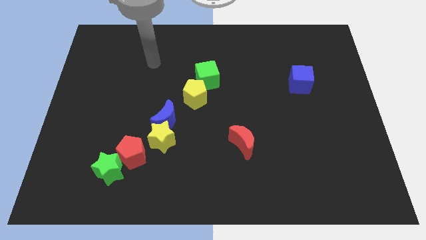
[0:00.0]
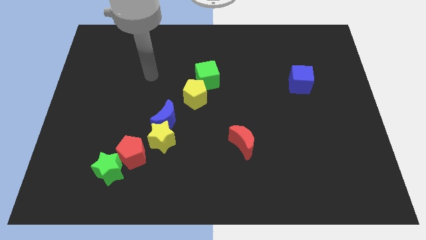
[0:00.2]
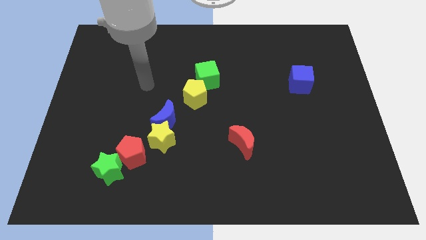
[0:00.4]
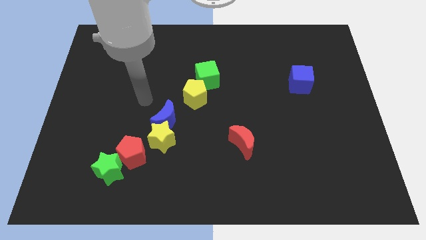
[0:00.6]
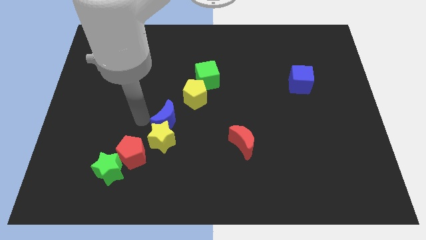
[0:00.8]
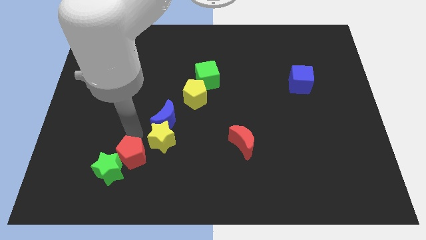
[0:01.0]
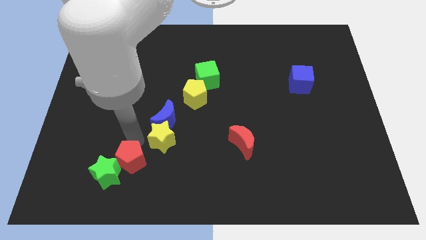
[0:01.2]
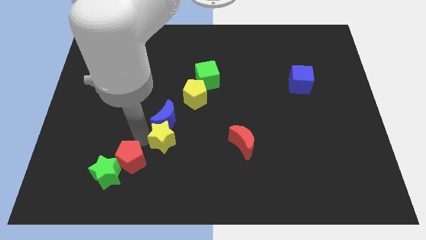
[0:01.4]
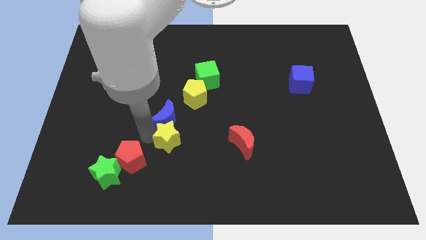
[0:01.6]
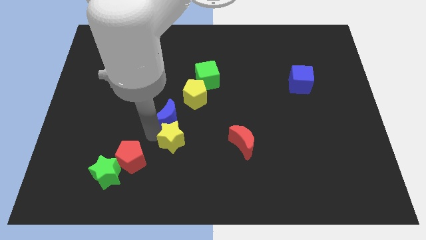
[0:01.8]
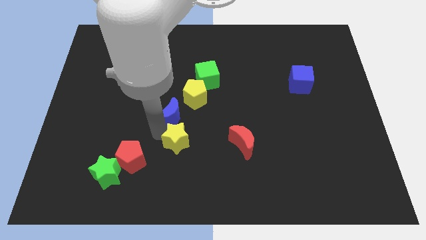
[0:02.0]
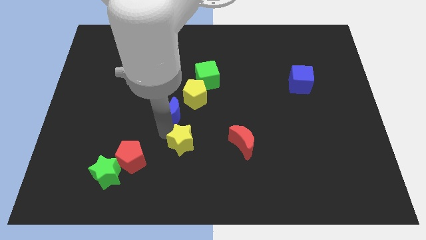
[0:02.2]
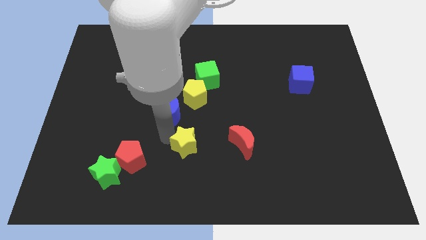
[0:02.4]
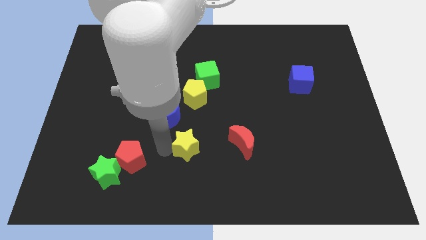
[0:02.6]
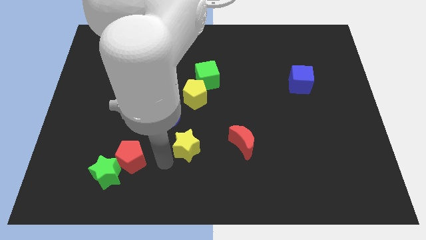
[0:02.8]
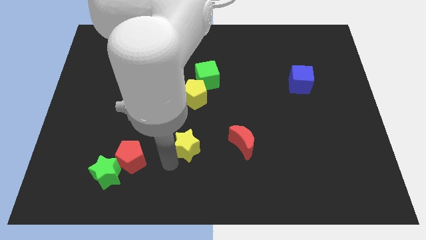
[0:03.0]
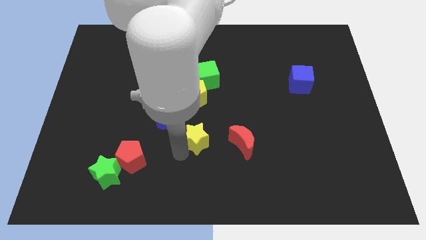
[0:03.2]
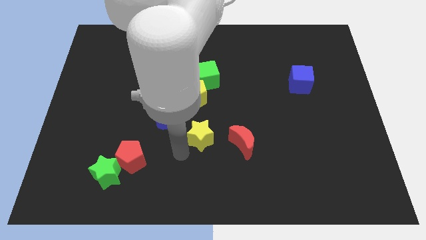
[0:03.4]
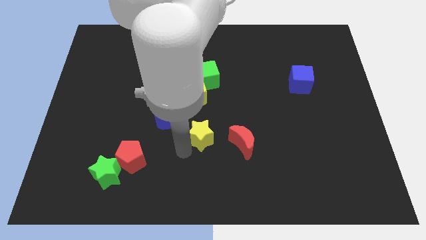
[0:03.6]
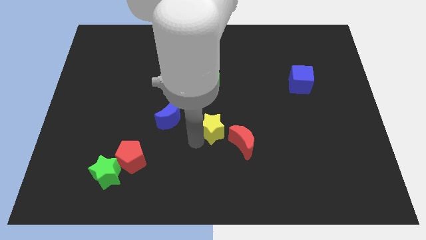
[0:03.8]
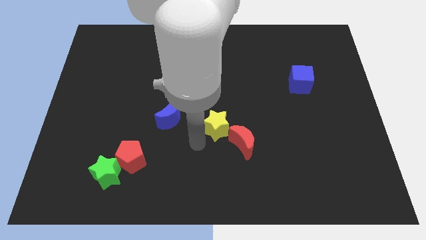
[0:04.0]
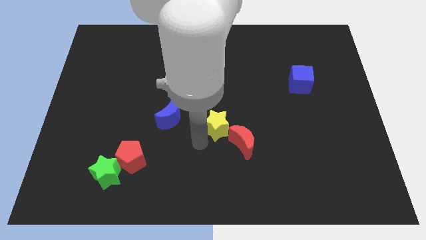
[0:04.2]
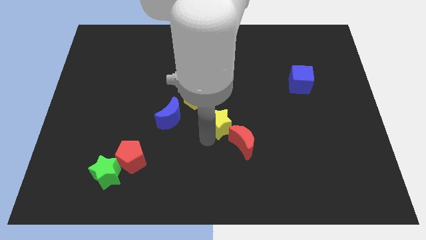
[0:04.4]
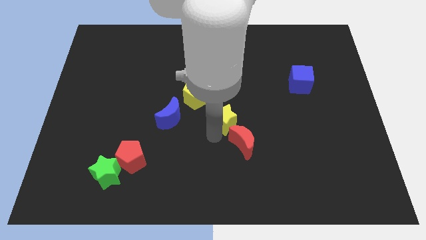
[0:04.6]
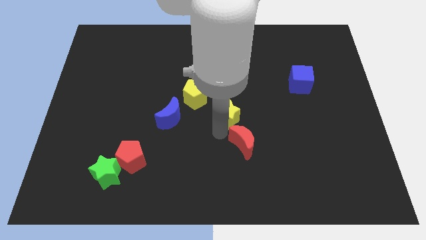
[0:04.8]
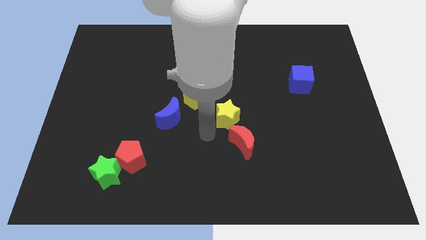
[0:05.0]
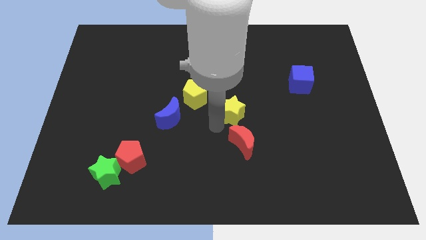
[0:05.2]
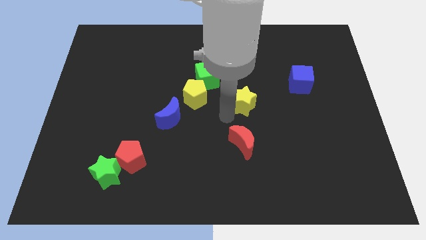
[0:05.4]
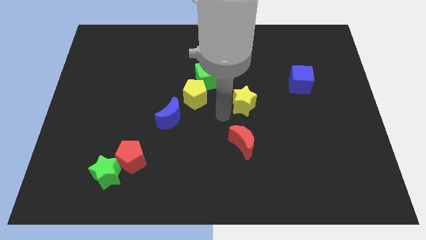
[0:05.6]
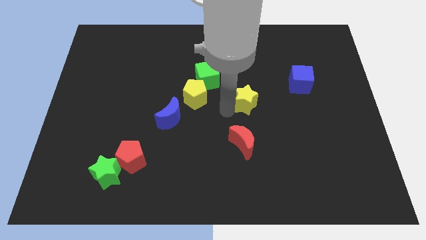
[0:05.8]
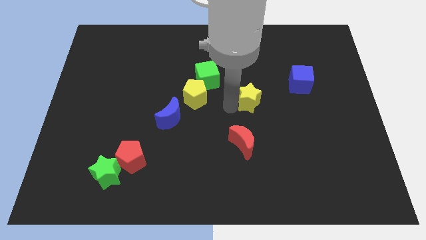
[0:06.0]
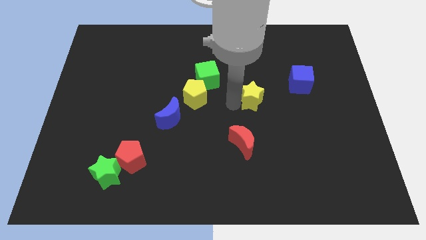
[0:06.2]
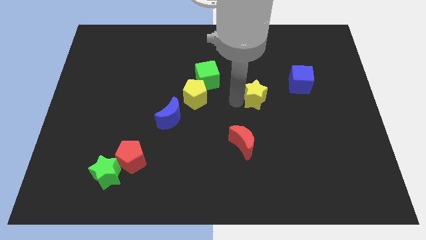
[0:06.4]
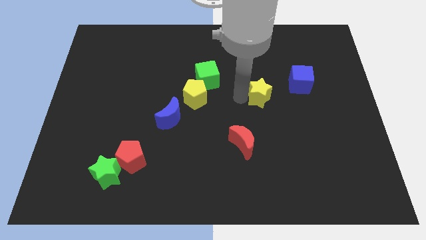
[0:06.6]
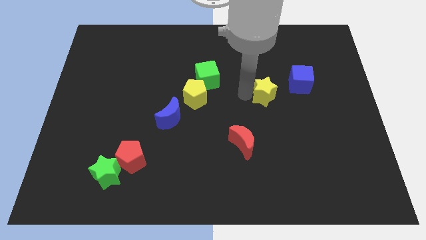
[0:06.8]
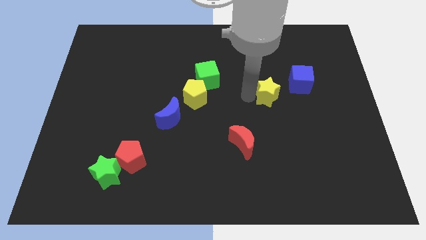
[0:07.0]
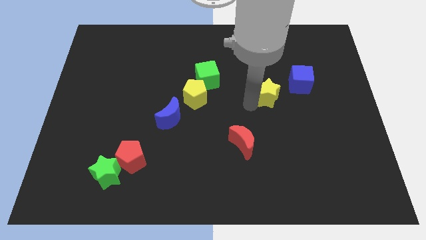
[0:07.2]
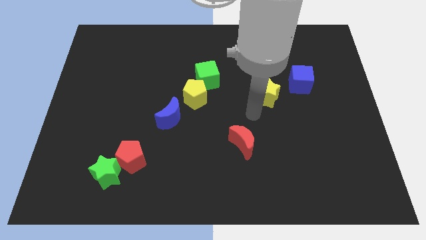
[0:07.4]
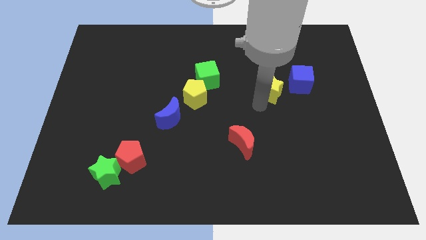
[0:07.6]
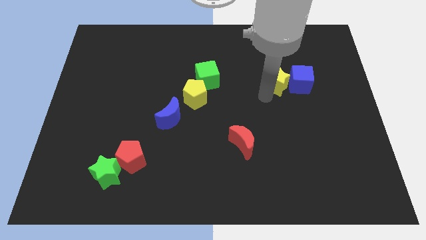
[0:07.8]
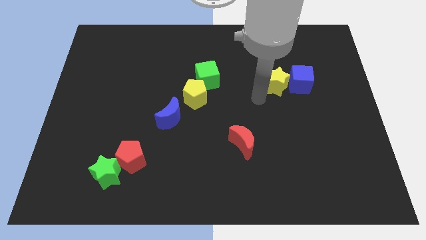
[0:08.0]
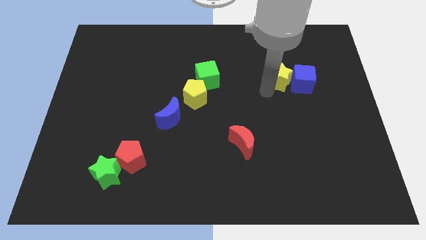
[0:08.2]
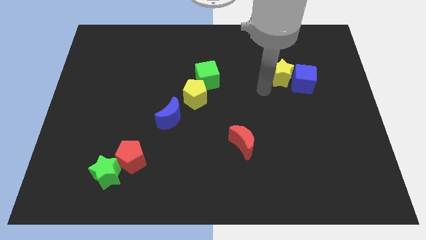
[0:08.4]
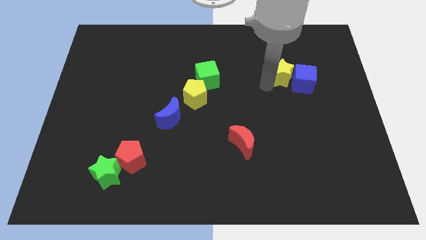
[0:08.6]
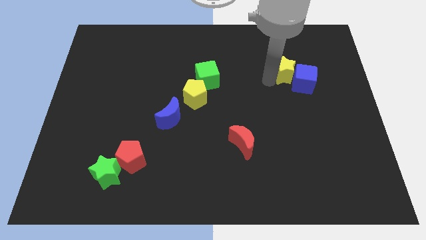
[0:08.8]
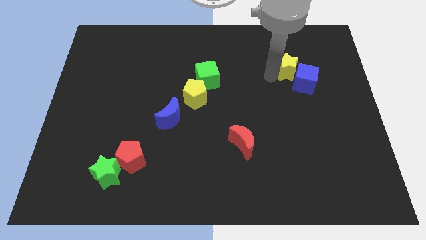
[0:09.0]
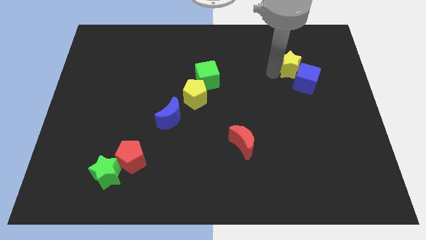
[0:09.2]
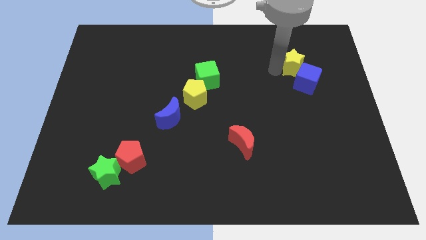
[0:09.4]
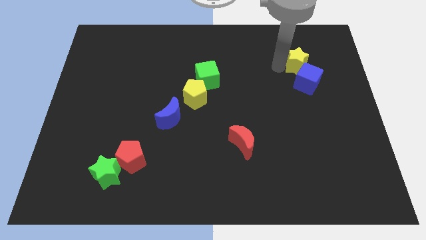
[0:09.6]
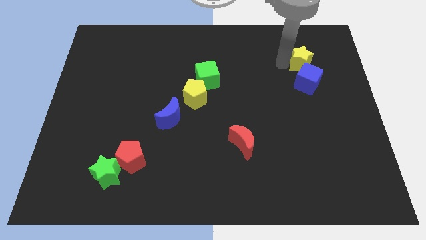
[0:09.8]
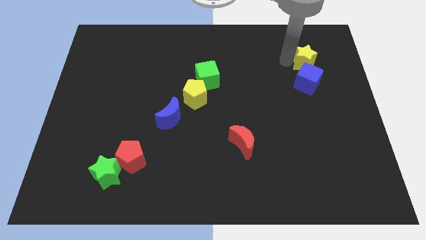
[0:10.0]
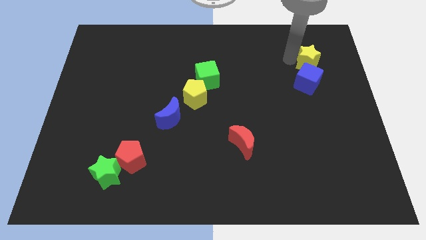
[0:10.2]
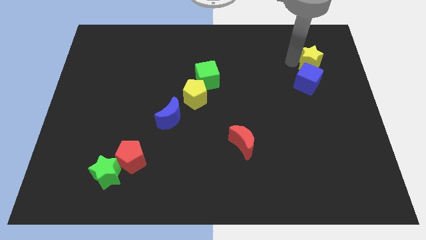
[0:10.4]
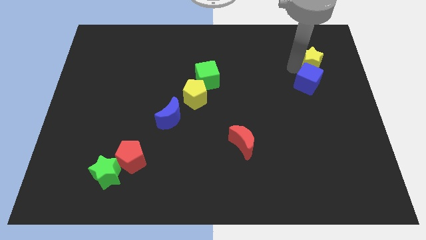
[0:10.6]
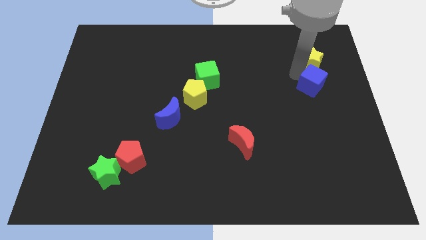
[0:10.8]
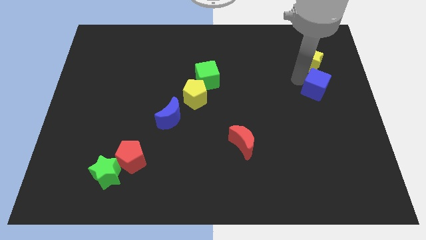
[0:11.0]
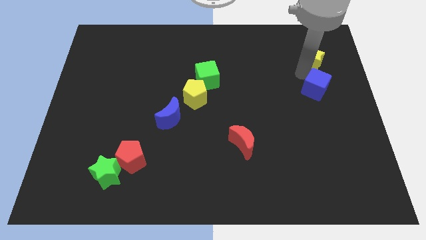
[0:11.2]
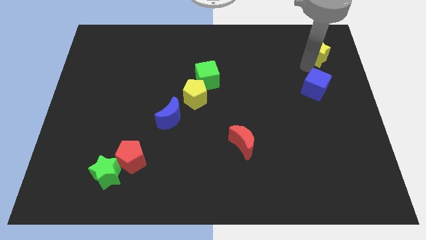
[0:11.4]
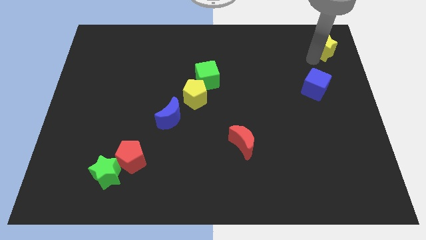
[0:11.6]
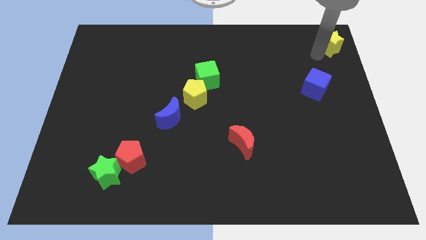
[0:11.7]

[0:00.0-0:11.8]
move the yellow star to the top right of the board
